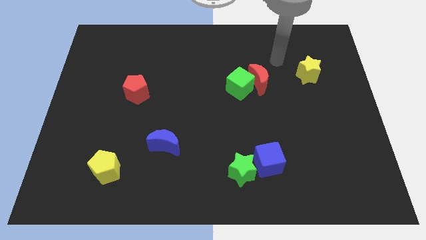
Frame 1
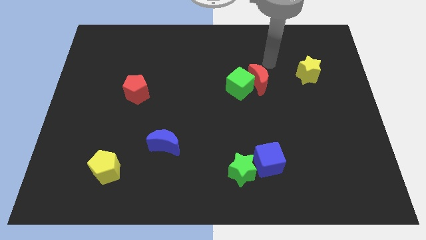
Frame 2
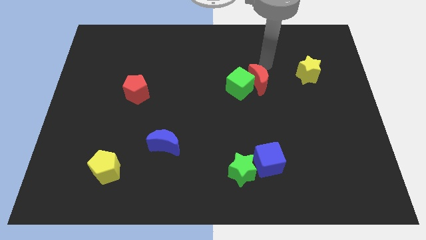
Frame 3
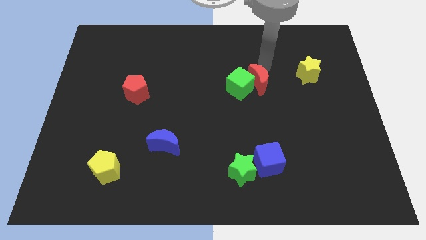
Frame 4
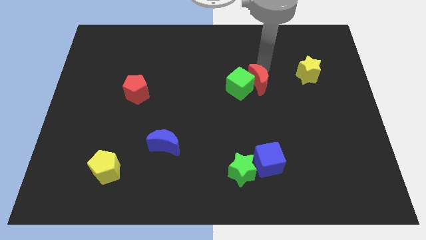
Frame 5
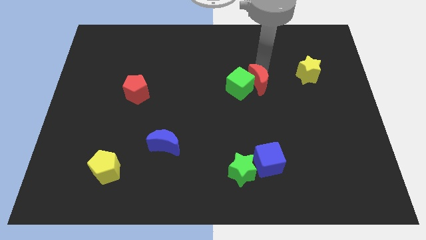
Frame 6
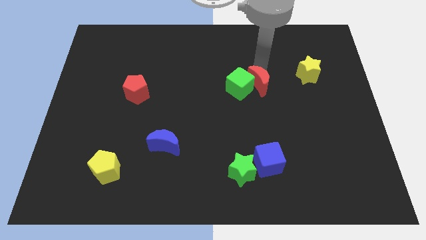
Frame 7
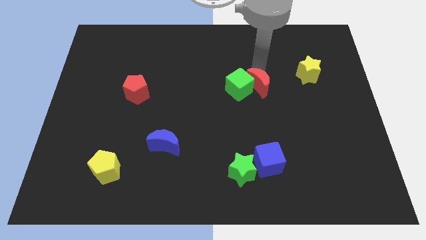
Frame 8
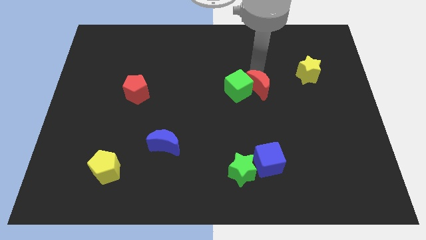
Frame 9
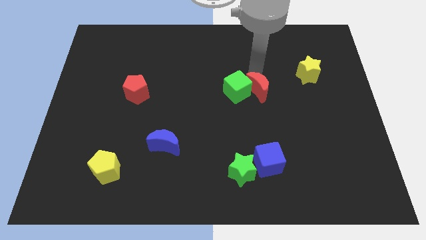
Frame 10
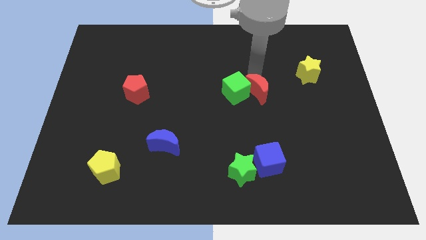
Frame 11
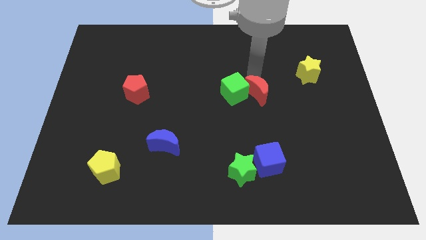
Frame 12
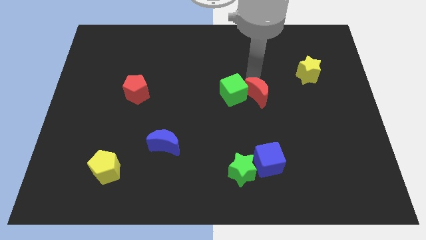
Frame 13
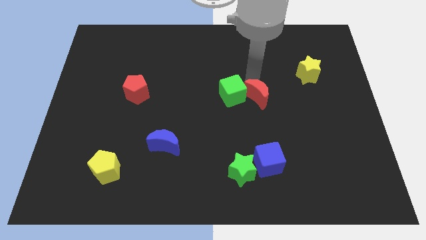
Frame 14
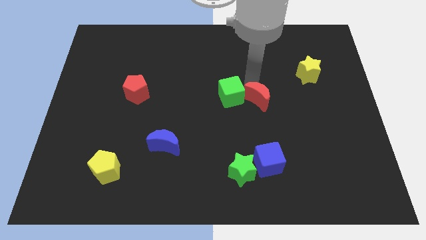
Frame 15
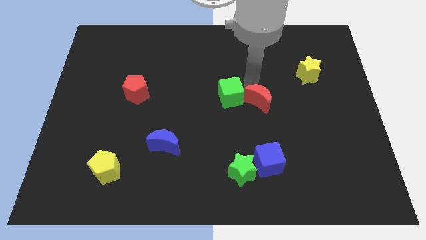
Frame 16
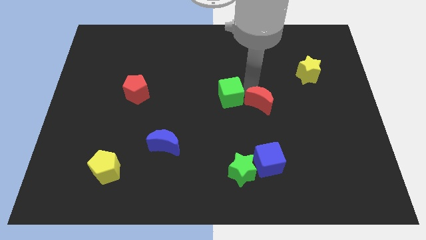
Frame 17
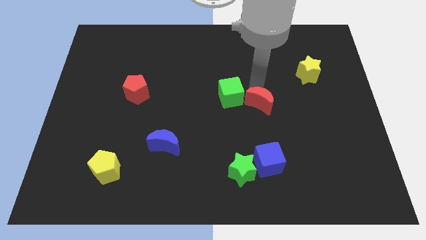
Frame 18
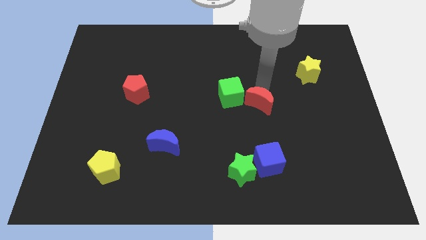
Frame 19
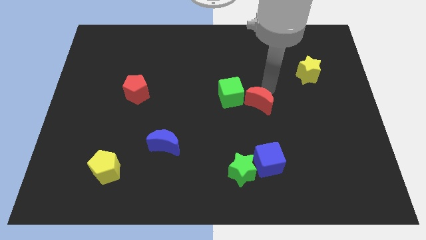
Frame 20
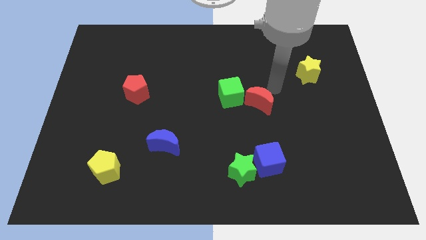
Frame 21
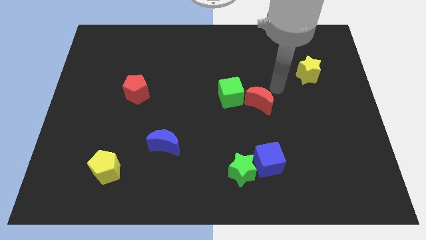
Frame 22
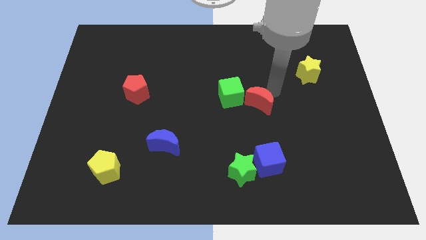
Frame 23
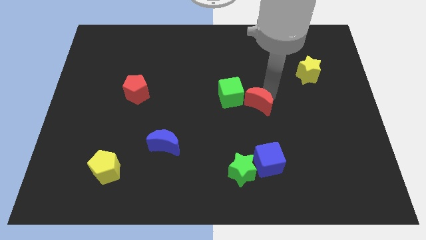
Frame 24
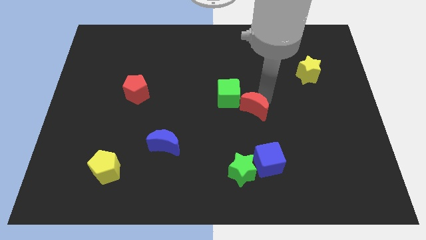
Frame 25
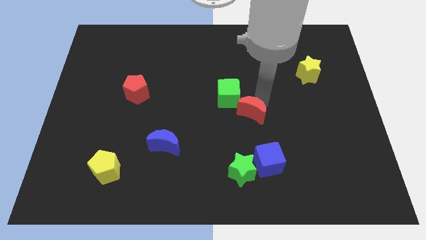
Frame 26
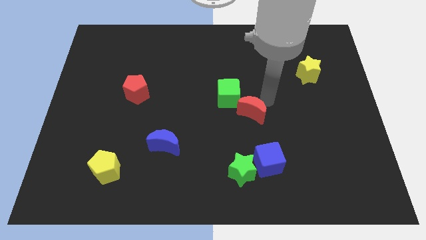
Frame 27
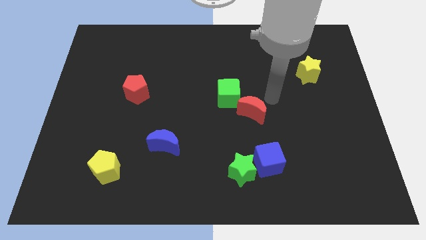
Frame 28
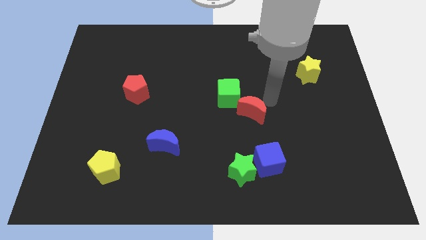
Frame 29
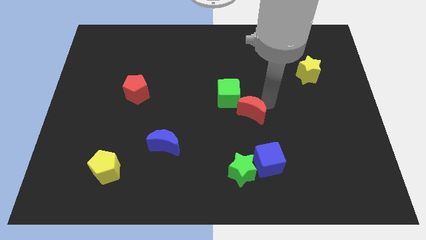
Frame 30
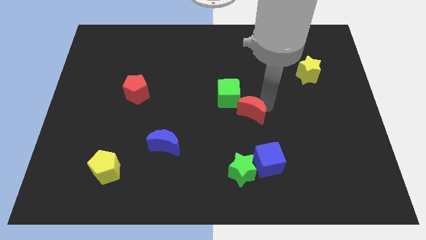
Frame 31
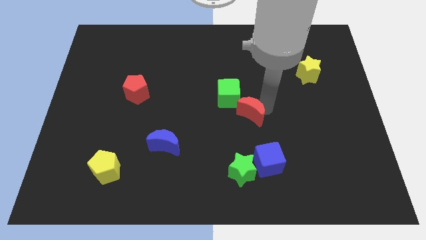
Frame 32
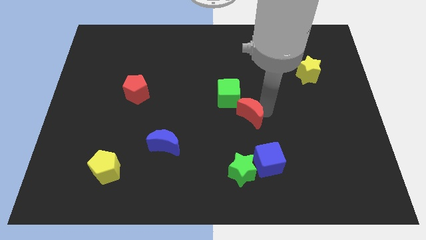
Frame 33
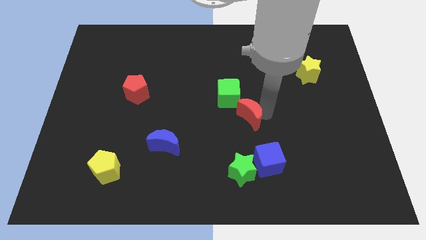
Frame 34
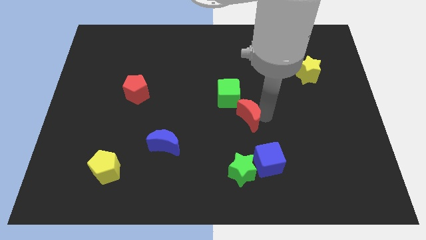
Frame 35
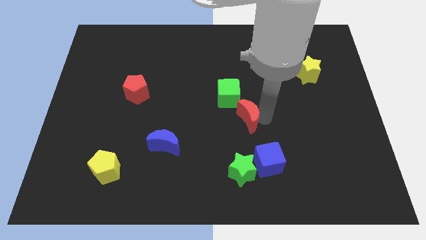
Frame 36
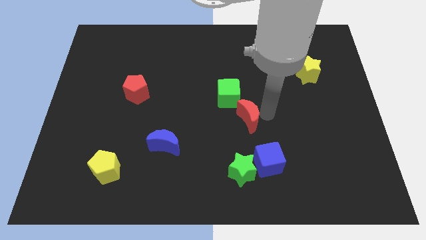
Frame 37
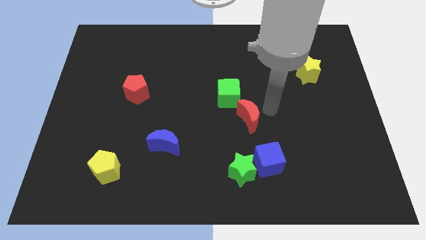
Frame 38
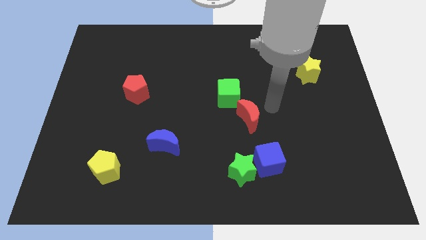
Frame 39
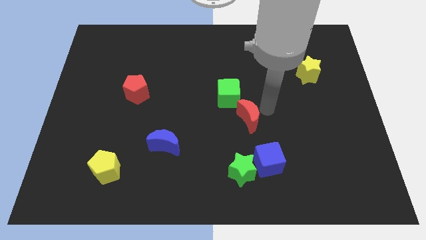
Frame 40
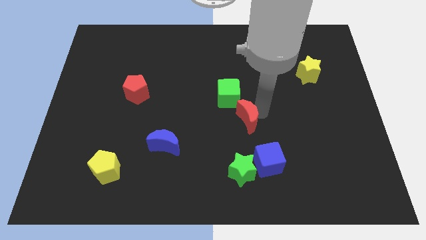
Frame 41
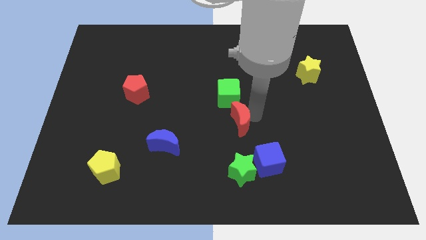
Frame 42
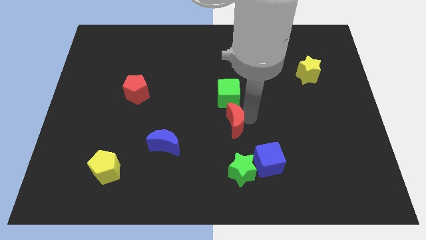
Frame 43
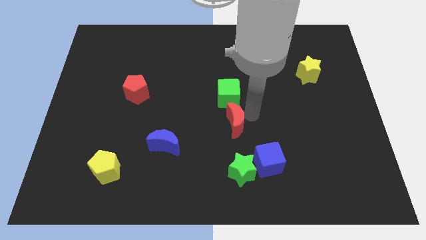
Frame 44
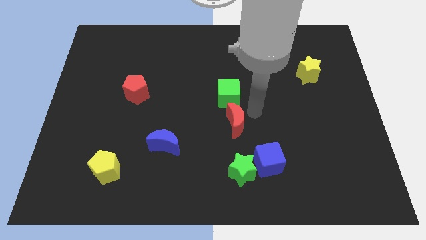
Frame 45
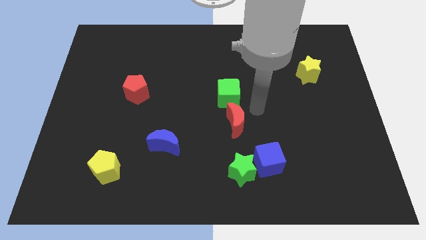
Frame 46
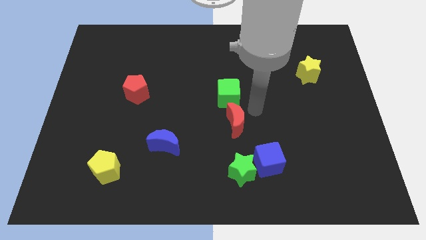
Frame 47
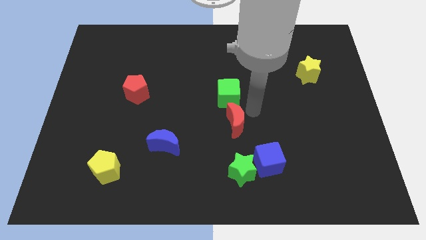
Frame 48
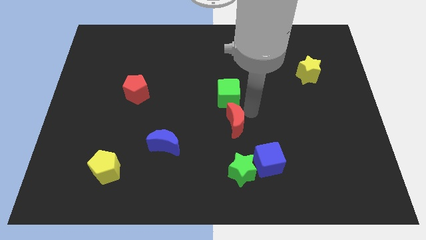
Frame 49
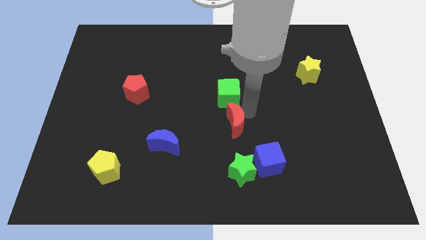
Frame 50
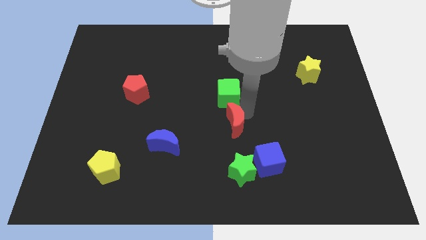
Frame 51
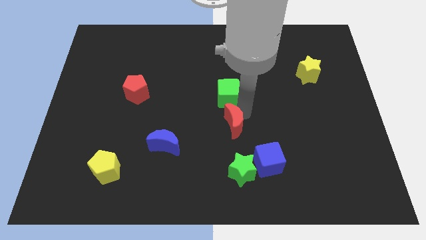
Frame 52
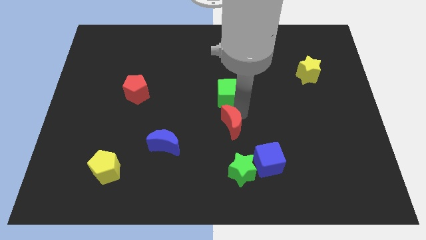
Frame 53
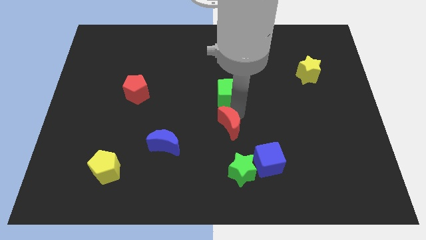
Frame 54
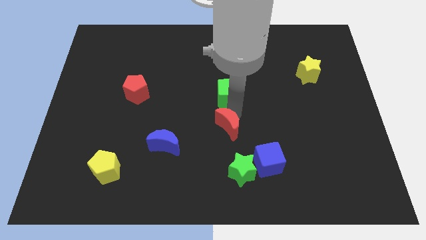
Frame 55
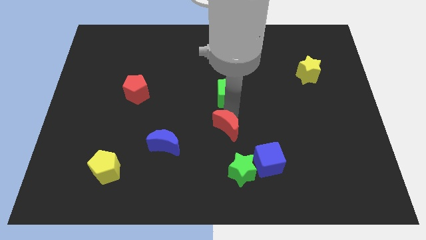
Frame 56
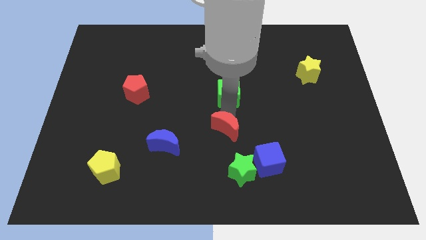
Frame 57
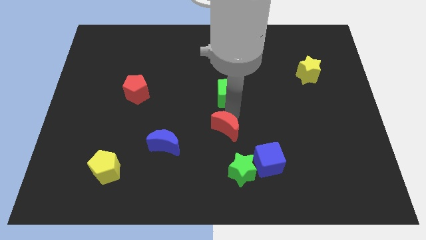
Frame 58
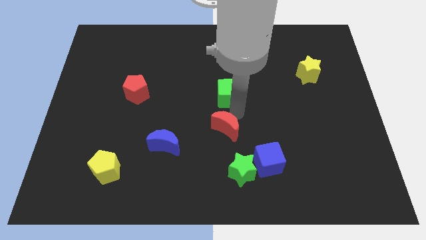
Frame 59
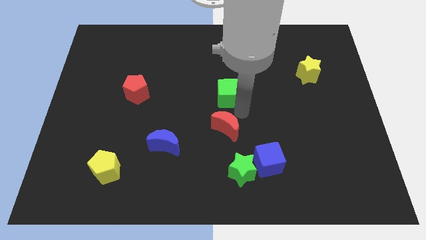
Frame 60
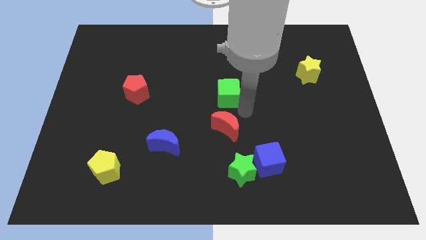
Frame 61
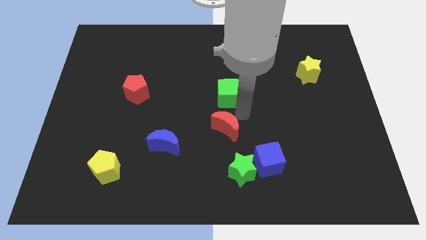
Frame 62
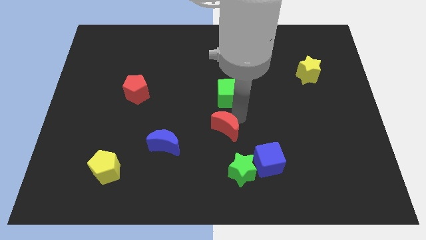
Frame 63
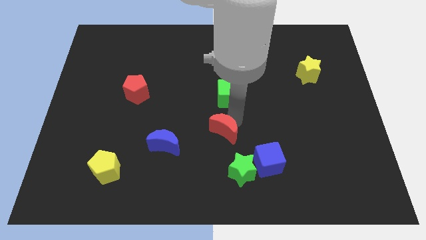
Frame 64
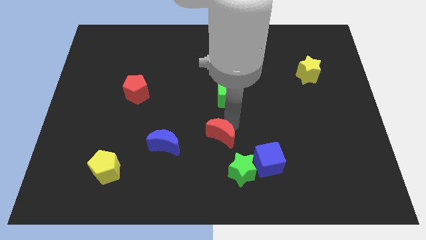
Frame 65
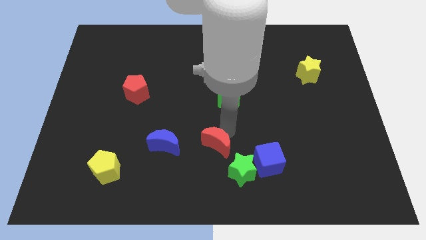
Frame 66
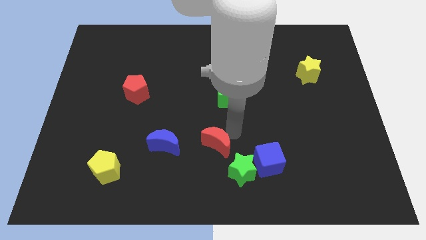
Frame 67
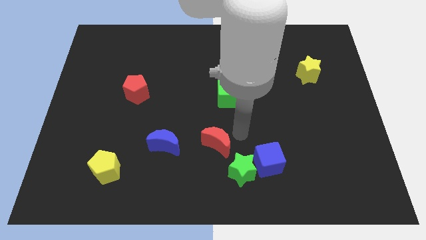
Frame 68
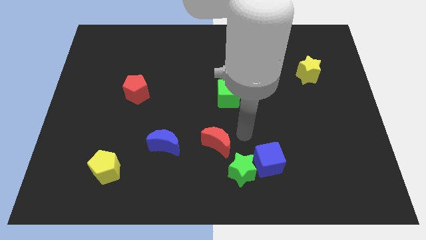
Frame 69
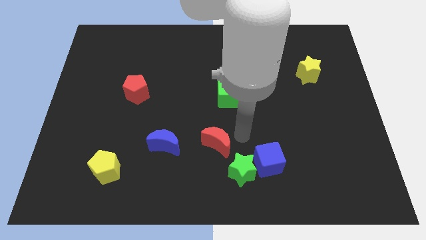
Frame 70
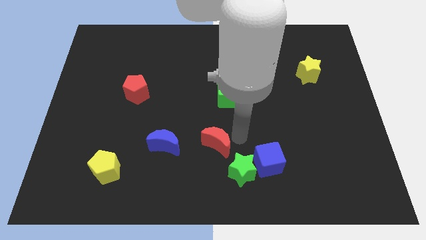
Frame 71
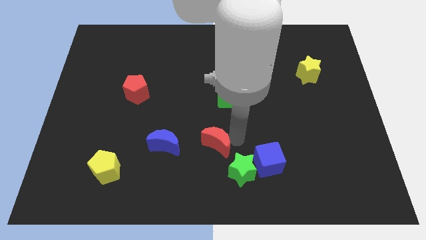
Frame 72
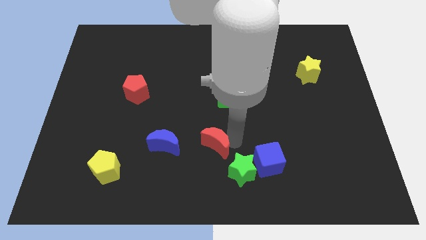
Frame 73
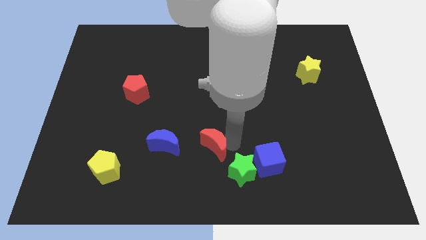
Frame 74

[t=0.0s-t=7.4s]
move the red moon downwards and to the left

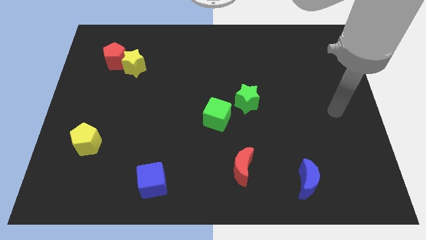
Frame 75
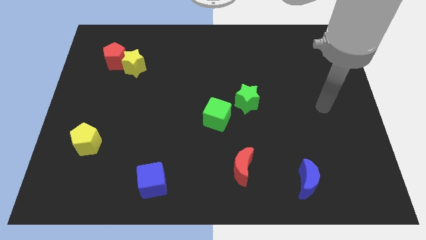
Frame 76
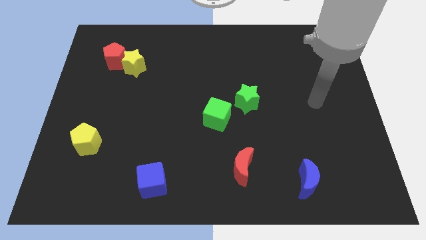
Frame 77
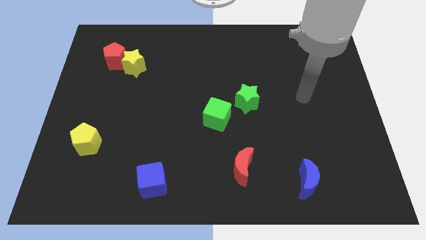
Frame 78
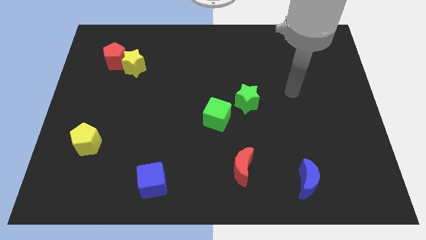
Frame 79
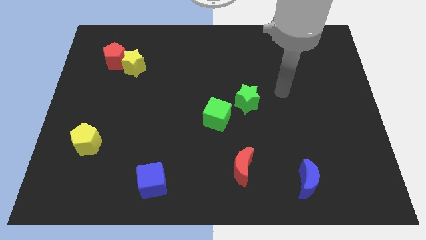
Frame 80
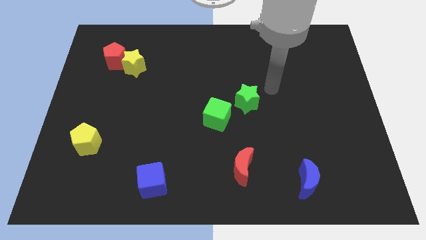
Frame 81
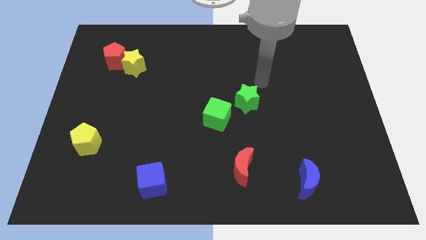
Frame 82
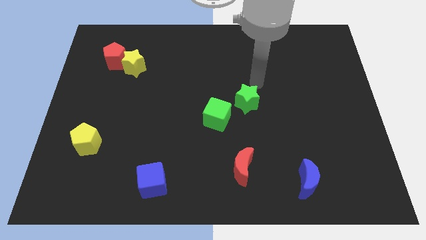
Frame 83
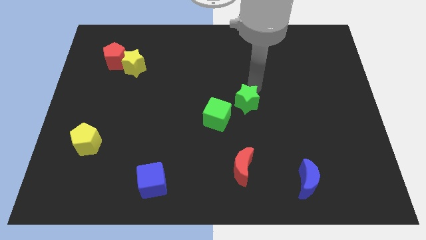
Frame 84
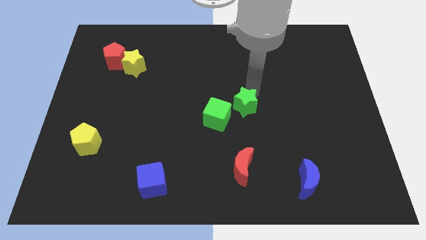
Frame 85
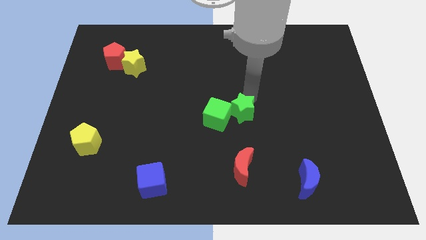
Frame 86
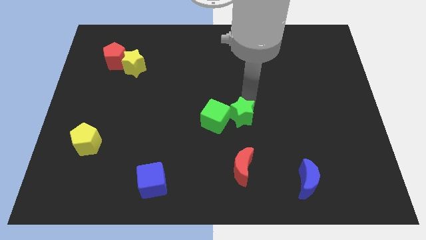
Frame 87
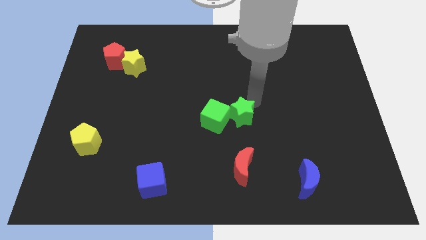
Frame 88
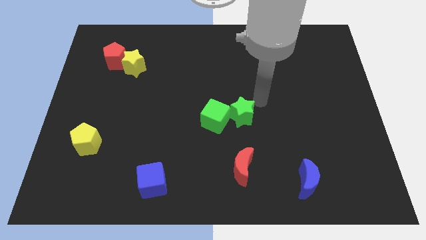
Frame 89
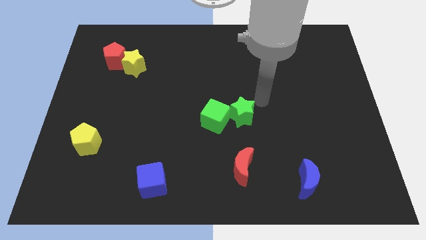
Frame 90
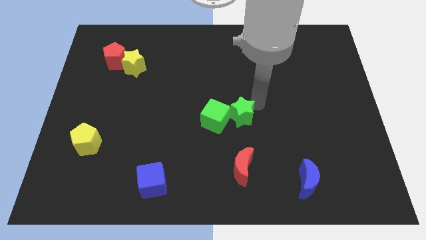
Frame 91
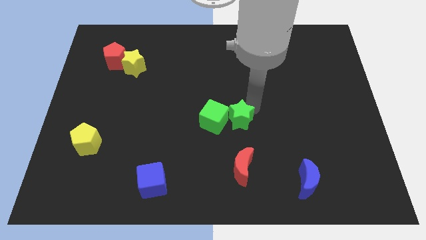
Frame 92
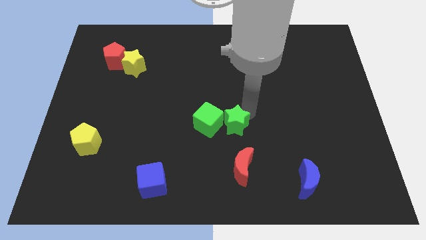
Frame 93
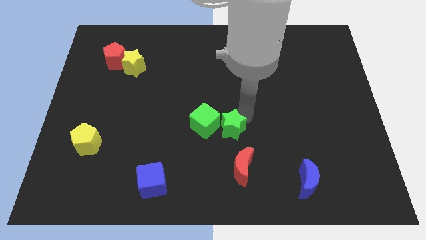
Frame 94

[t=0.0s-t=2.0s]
slightly slide the green star diagonally downwards and to the left
